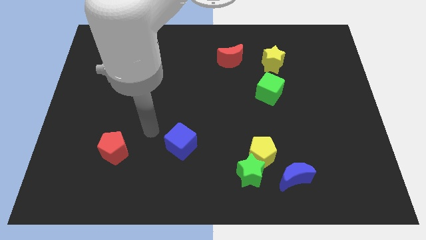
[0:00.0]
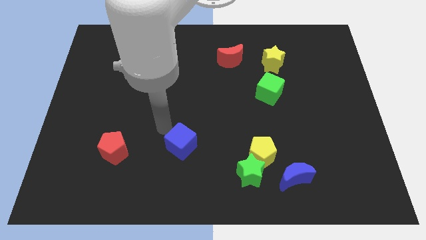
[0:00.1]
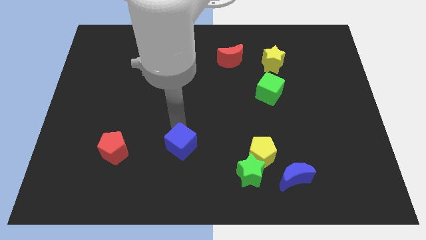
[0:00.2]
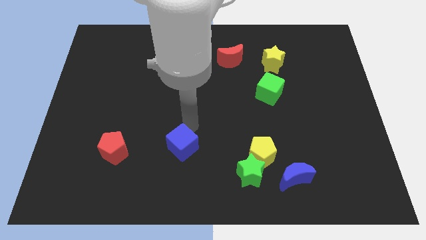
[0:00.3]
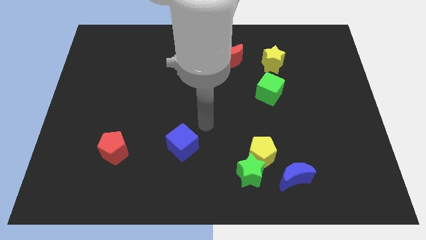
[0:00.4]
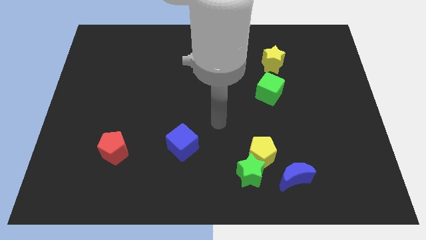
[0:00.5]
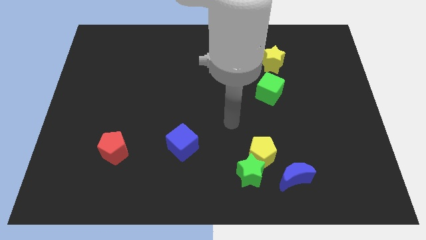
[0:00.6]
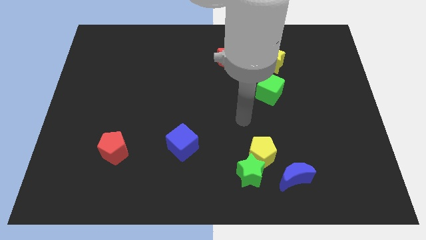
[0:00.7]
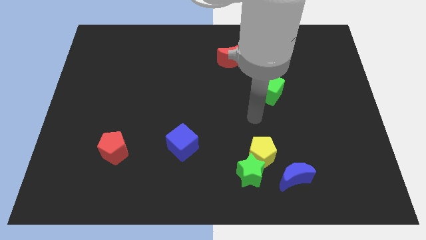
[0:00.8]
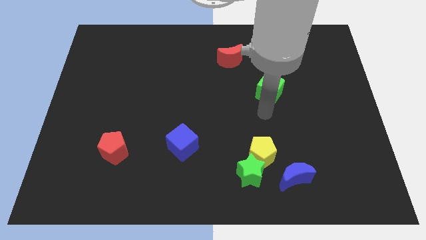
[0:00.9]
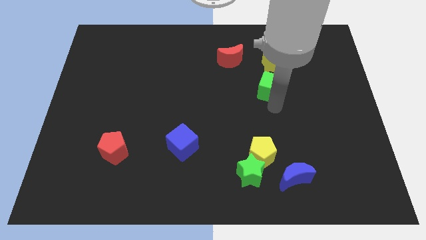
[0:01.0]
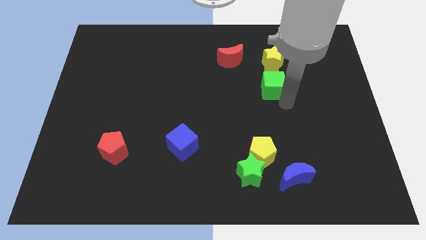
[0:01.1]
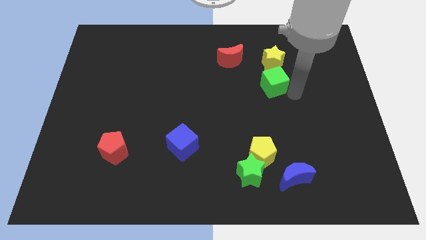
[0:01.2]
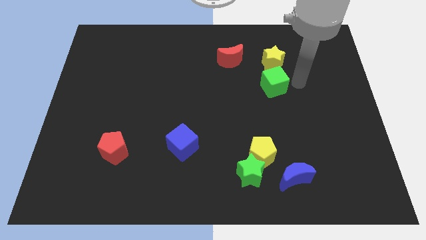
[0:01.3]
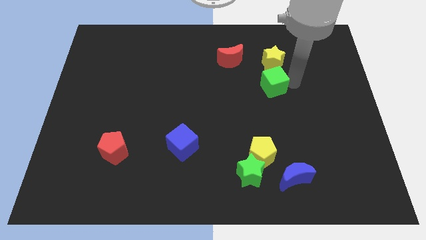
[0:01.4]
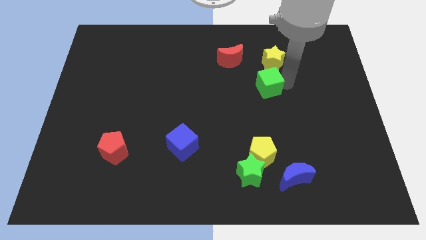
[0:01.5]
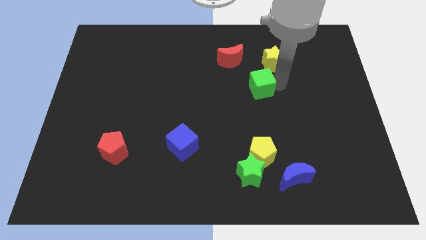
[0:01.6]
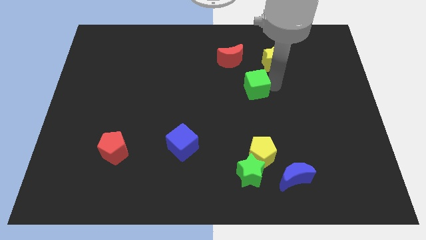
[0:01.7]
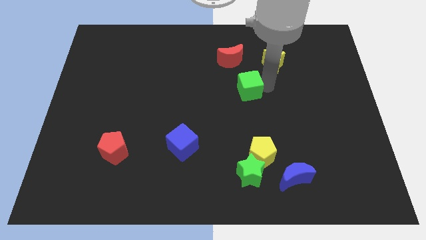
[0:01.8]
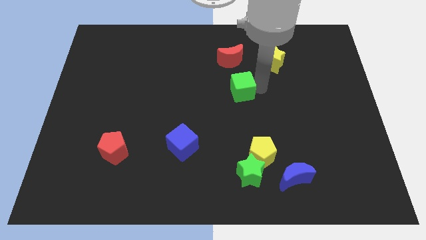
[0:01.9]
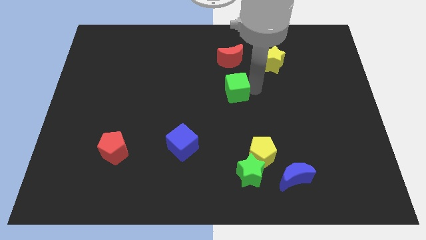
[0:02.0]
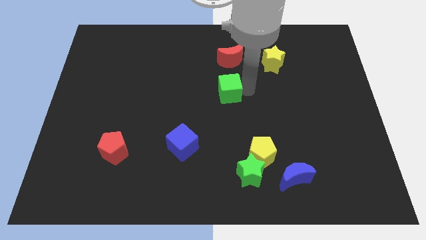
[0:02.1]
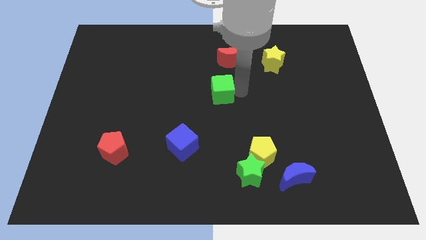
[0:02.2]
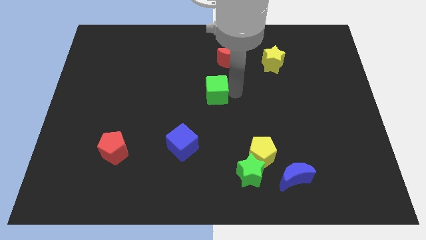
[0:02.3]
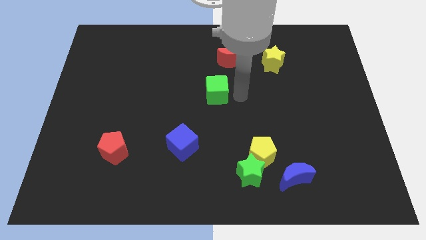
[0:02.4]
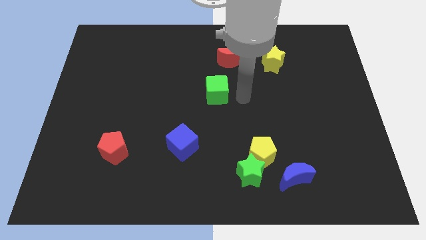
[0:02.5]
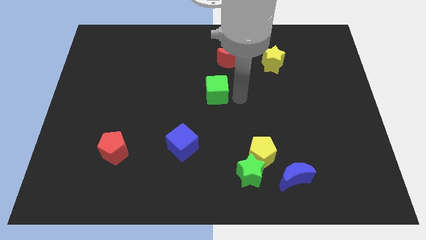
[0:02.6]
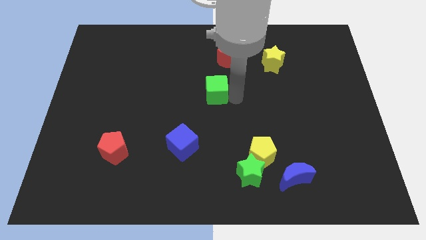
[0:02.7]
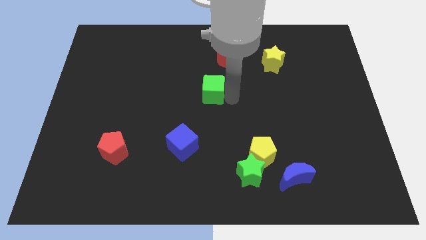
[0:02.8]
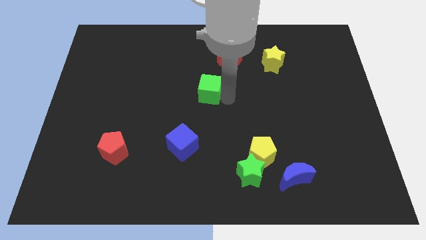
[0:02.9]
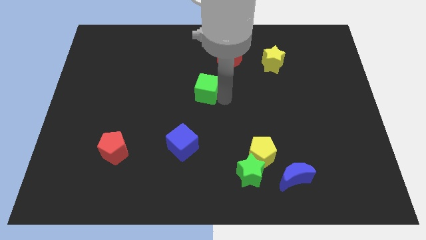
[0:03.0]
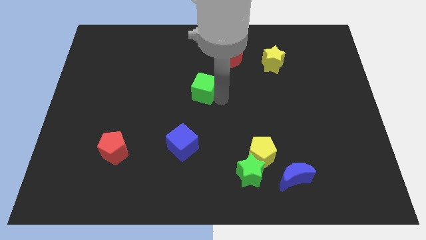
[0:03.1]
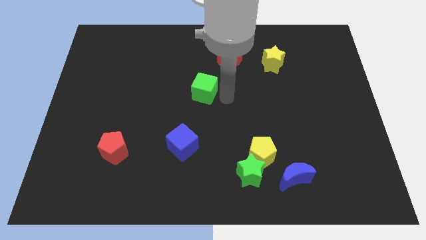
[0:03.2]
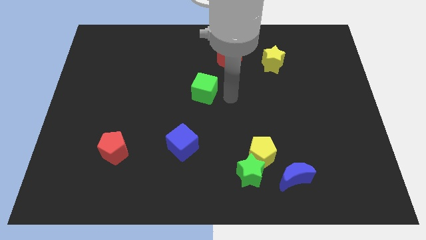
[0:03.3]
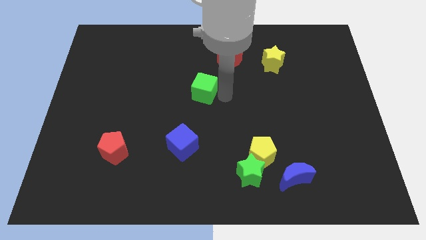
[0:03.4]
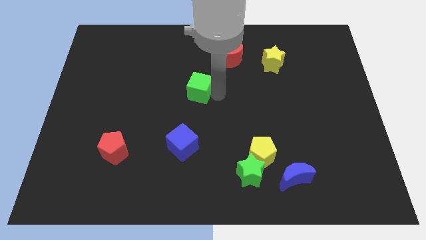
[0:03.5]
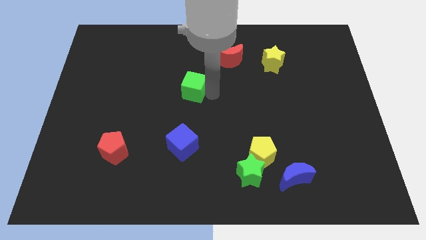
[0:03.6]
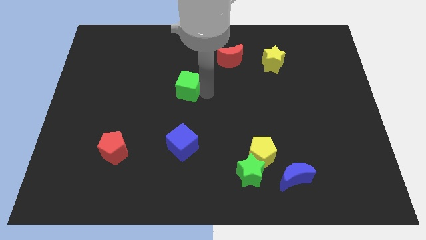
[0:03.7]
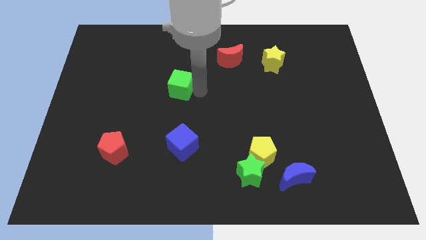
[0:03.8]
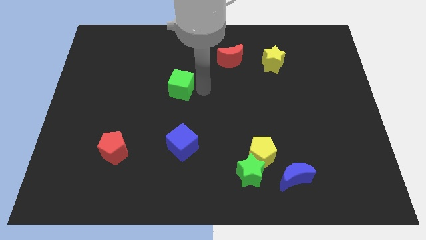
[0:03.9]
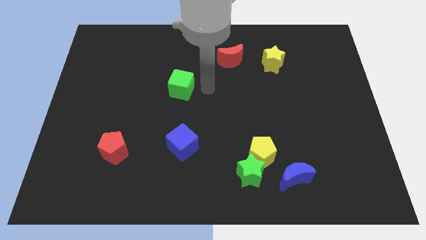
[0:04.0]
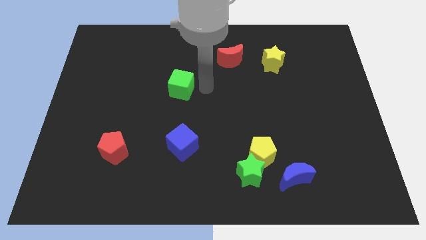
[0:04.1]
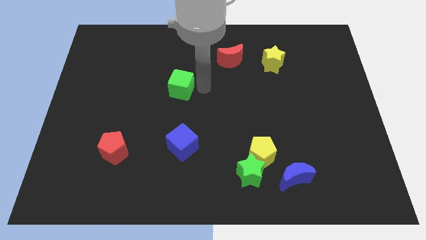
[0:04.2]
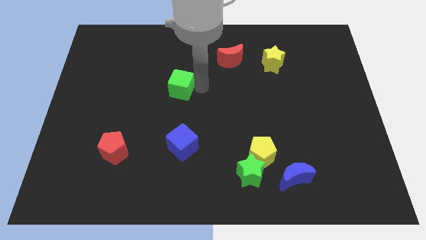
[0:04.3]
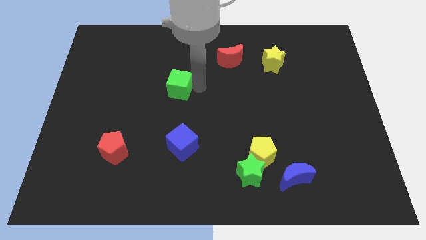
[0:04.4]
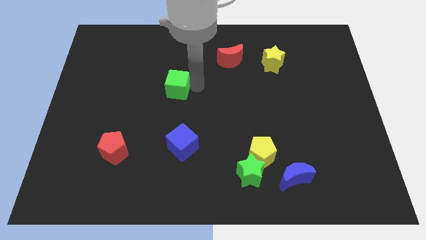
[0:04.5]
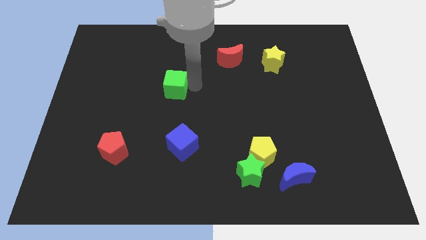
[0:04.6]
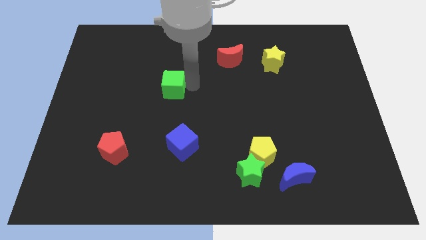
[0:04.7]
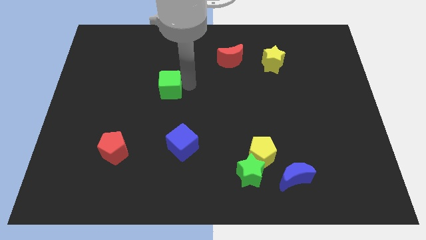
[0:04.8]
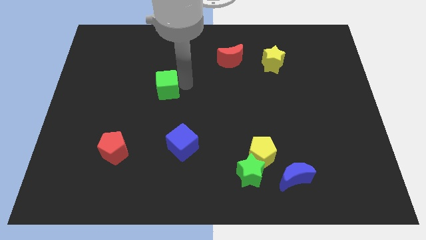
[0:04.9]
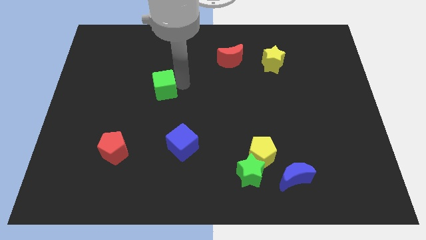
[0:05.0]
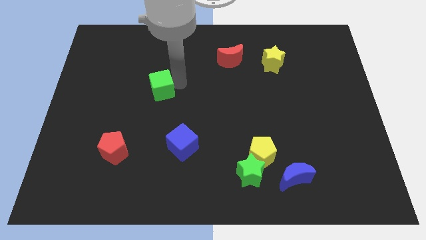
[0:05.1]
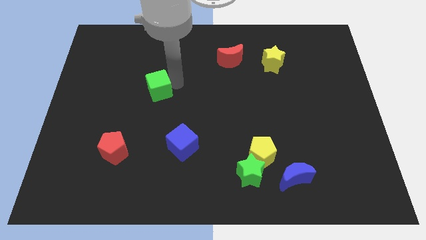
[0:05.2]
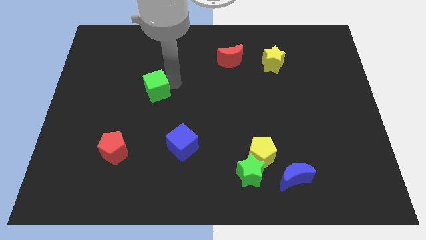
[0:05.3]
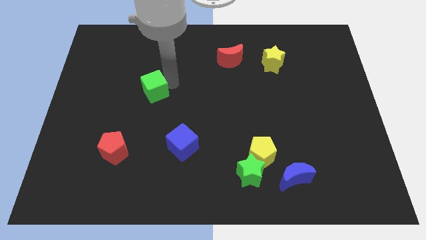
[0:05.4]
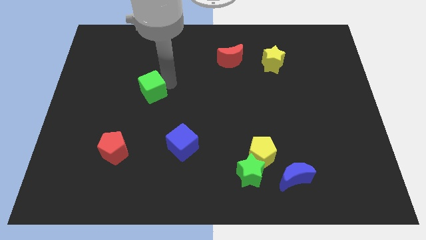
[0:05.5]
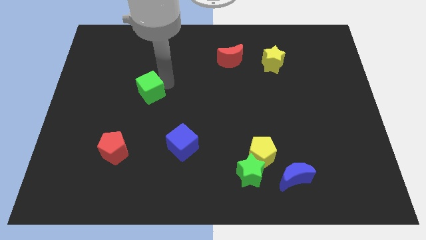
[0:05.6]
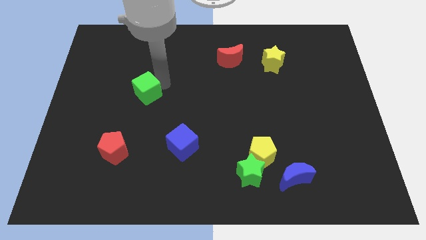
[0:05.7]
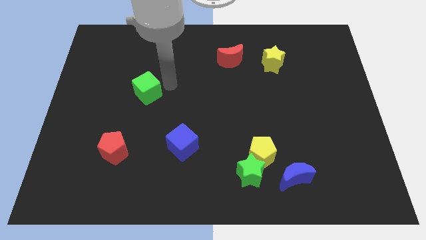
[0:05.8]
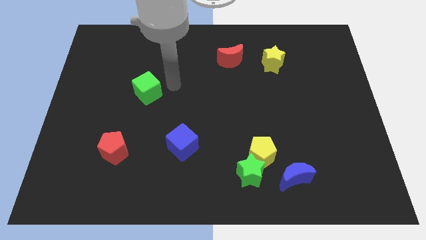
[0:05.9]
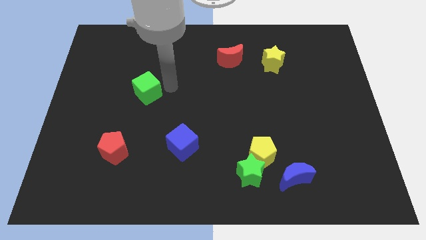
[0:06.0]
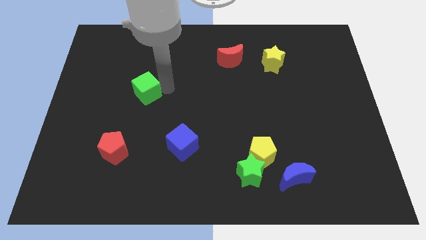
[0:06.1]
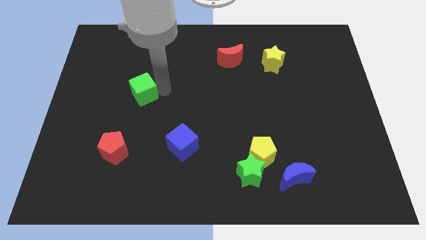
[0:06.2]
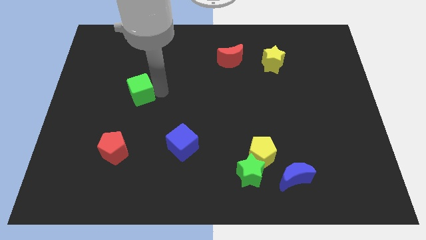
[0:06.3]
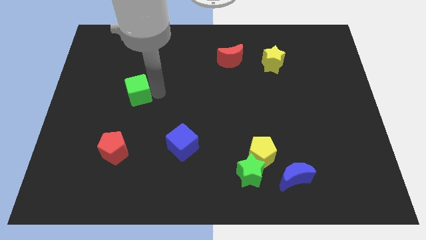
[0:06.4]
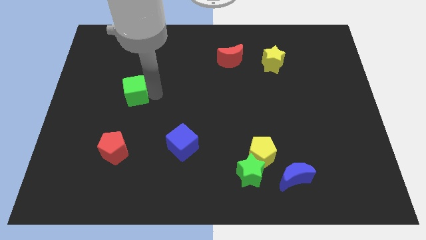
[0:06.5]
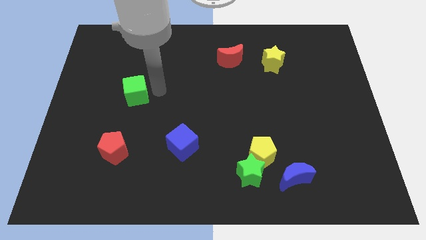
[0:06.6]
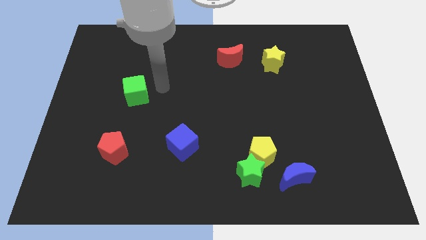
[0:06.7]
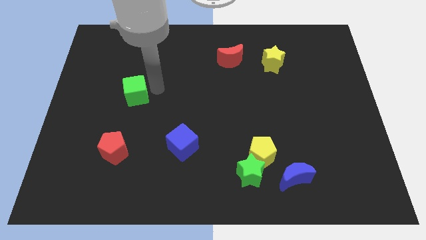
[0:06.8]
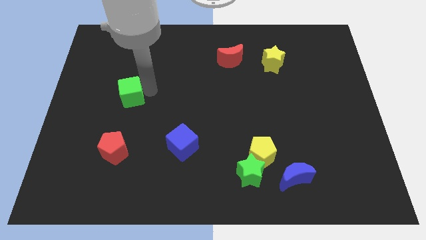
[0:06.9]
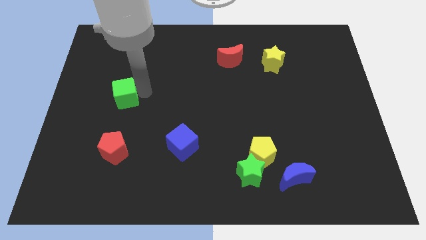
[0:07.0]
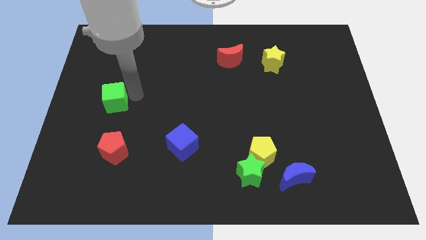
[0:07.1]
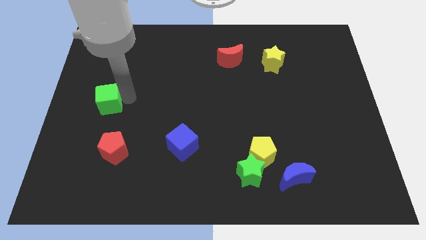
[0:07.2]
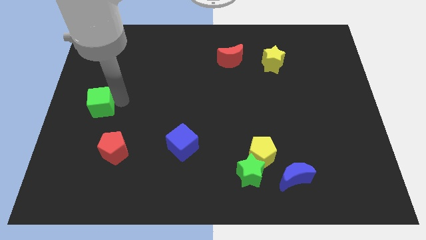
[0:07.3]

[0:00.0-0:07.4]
move the green cube to the left side of the board
